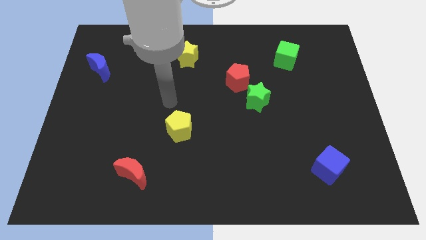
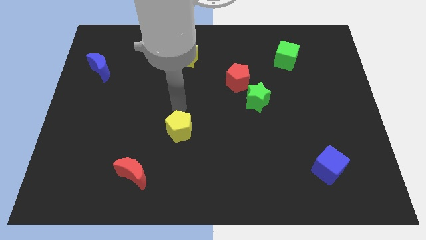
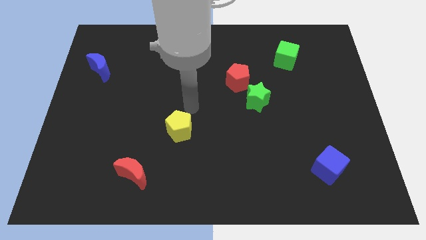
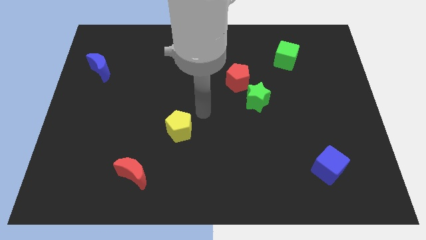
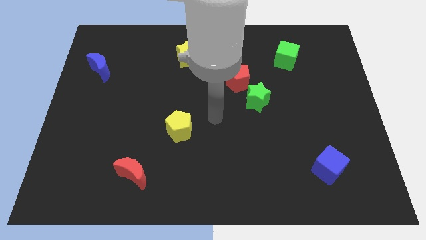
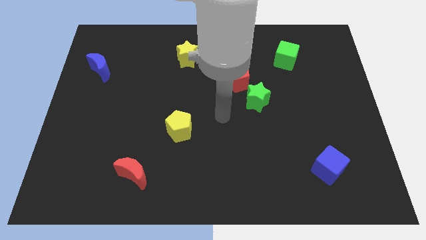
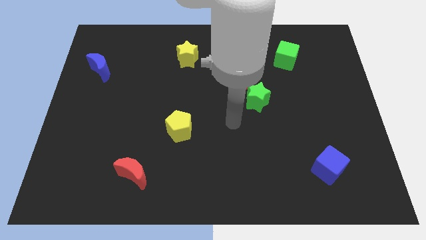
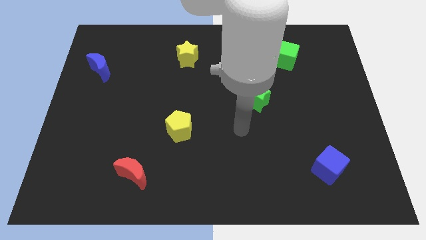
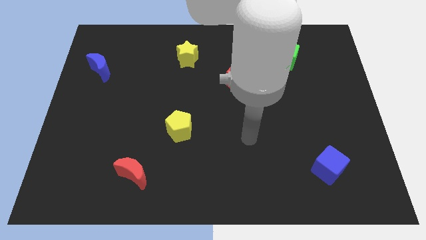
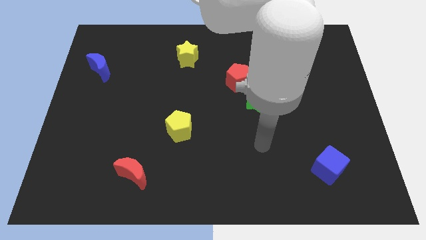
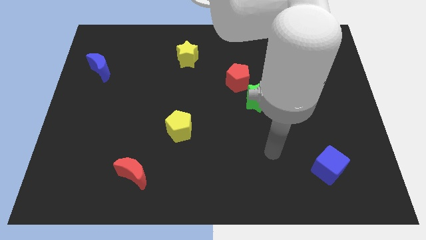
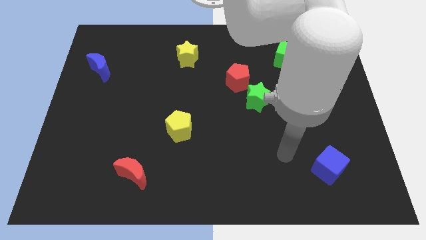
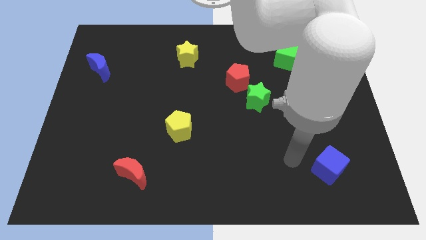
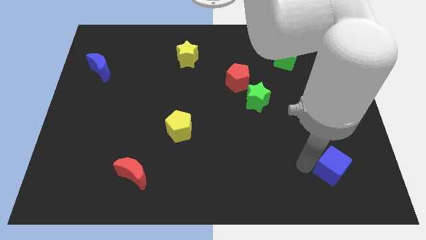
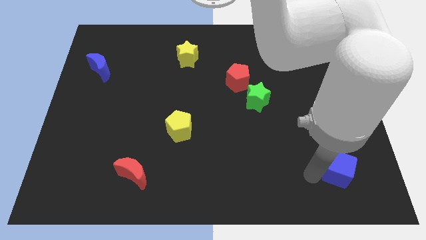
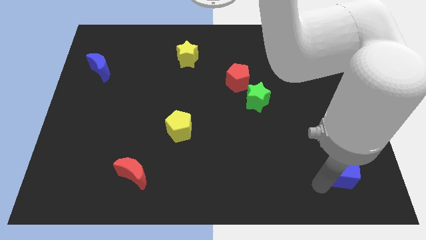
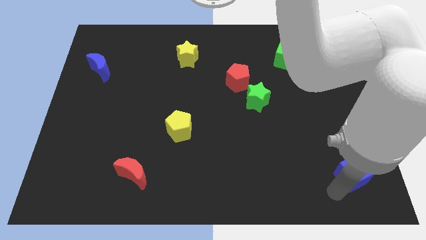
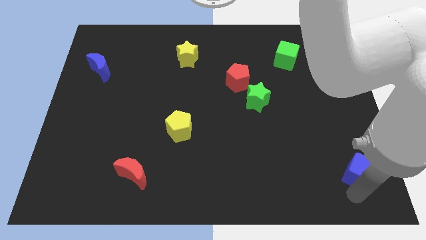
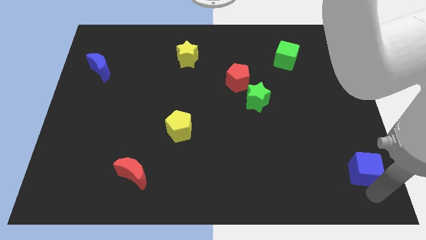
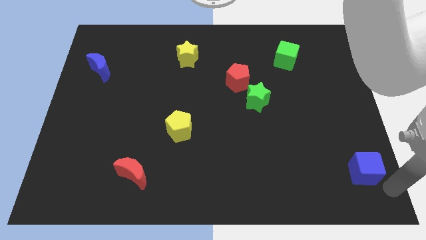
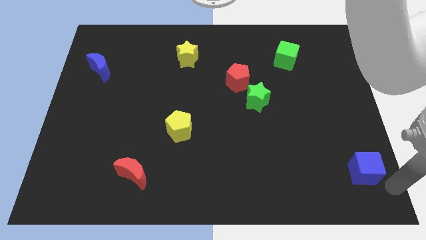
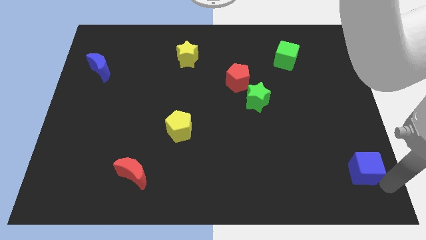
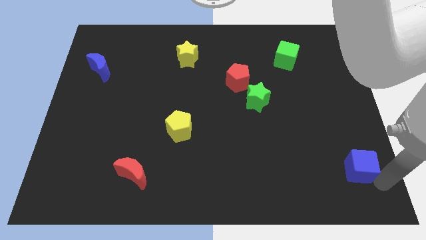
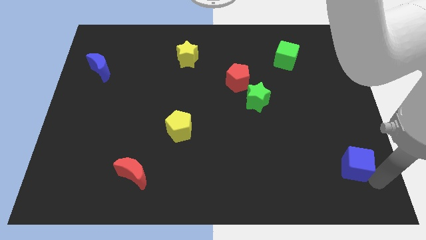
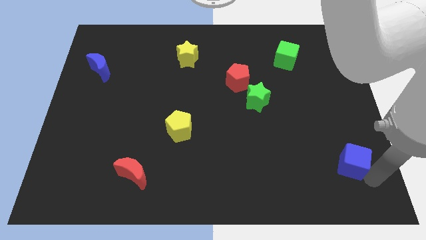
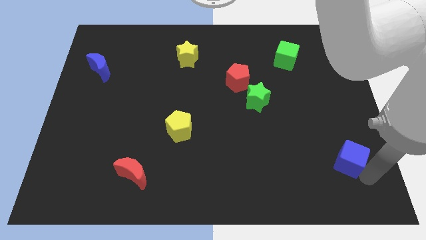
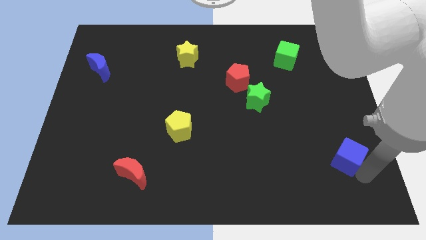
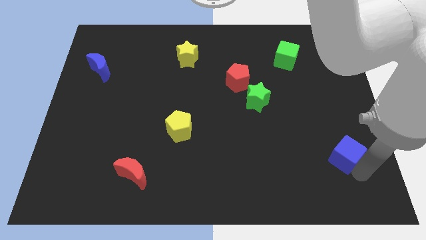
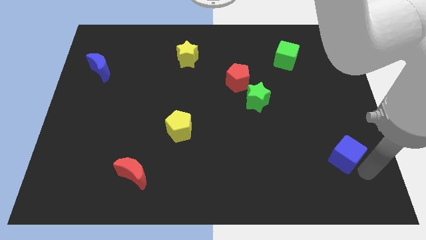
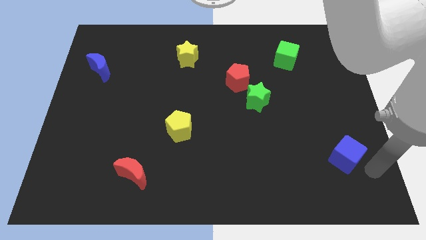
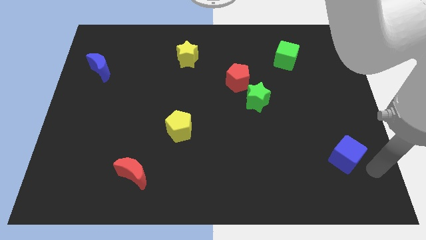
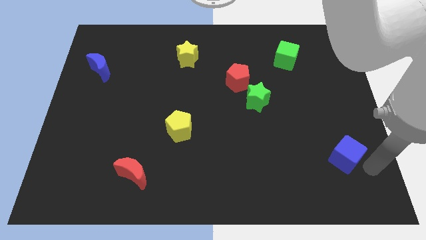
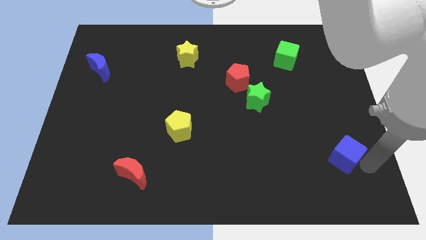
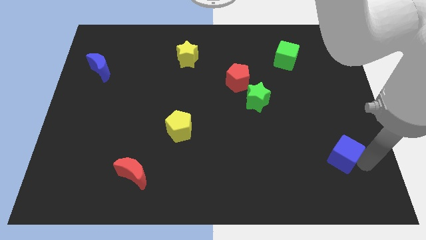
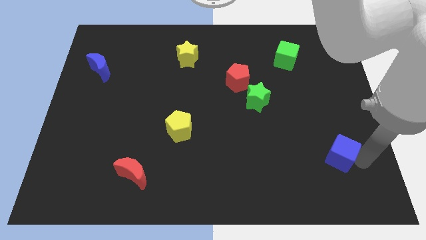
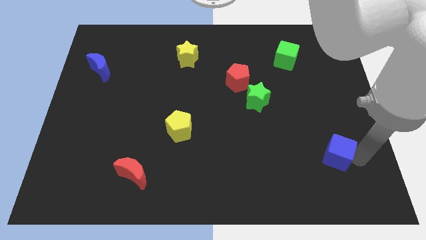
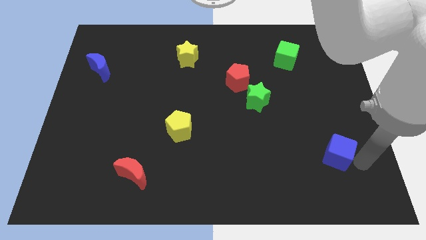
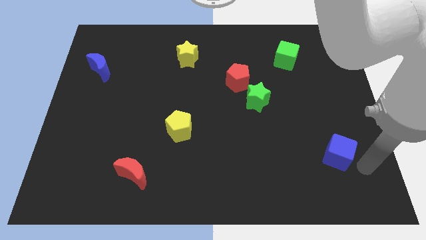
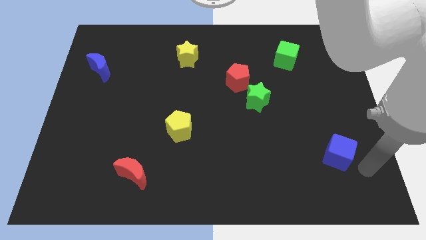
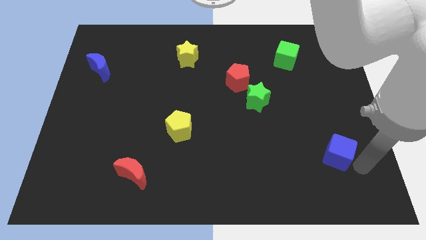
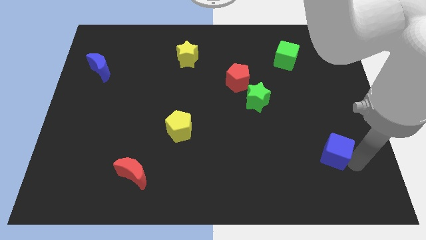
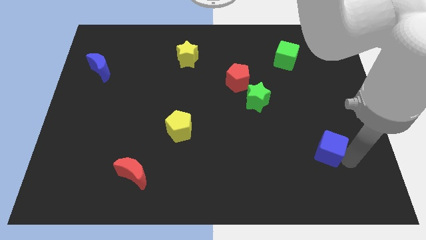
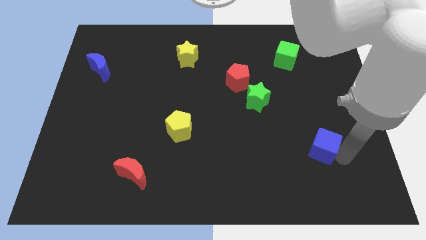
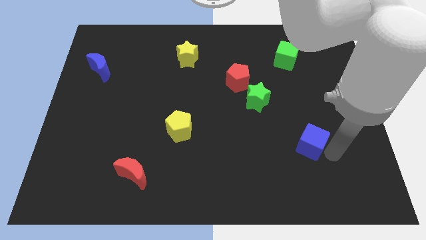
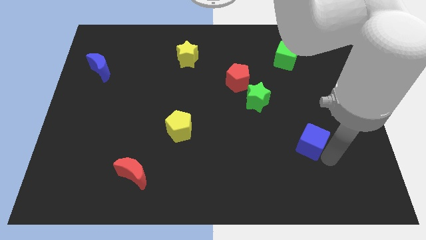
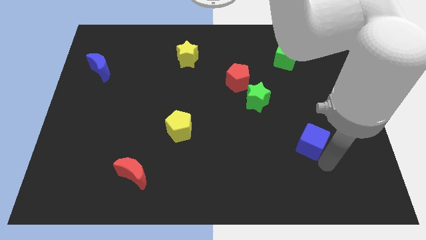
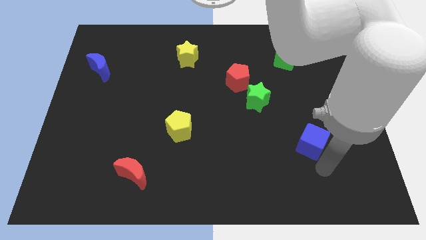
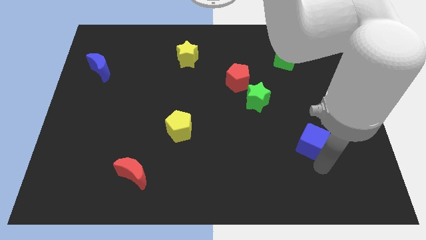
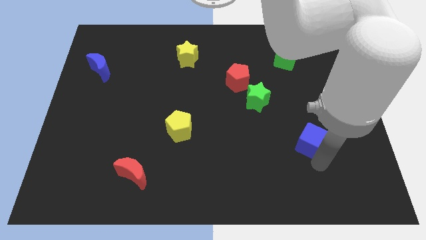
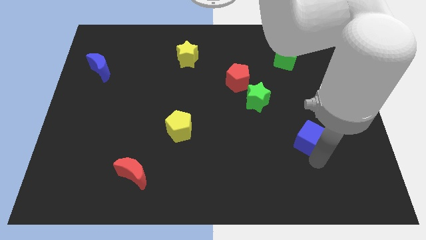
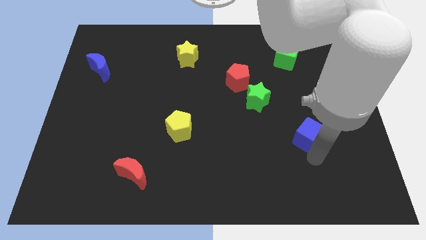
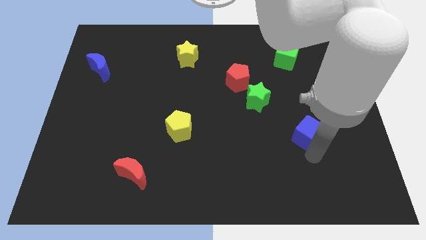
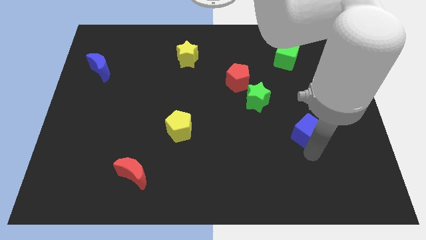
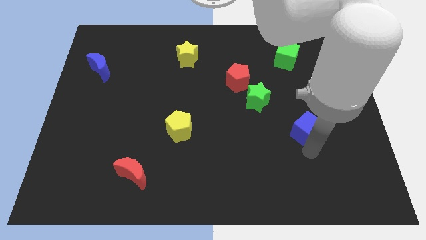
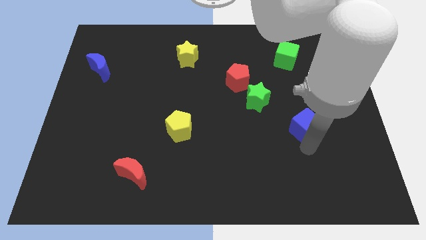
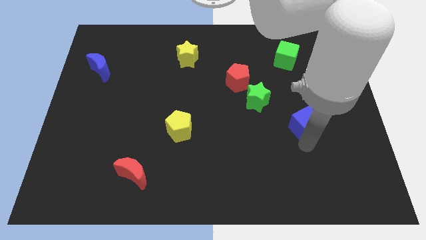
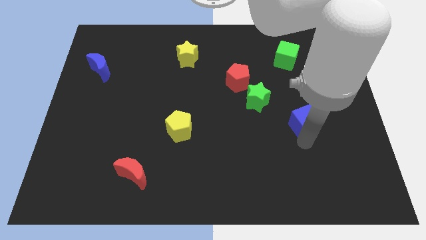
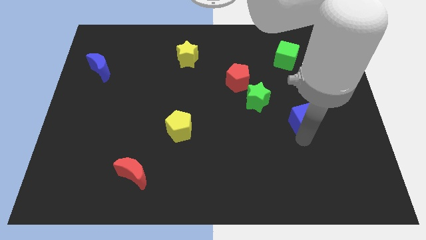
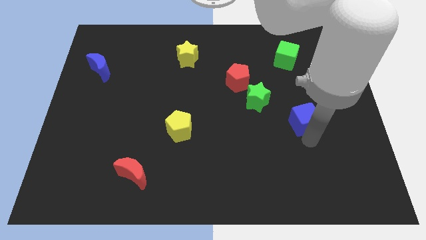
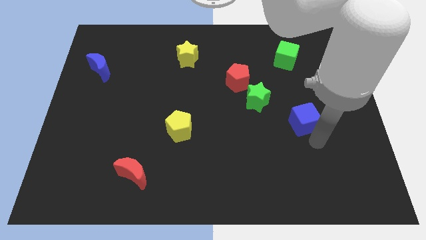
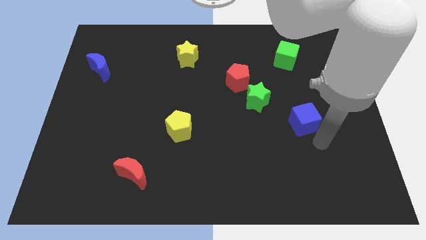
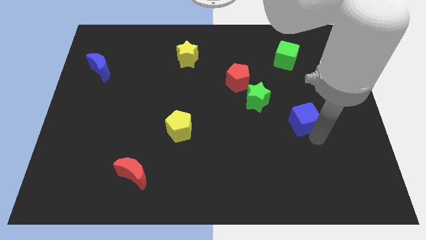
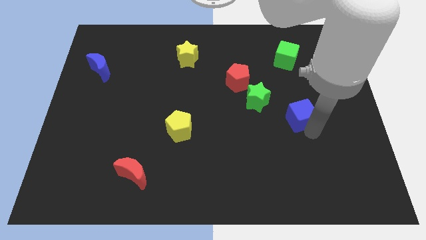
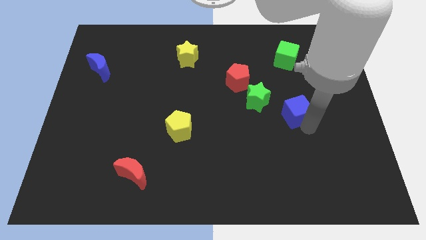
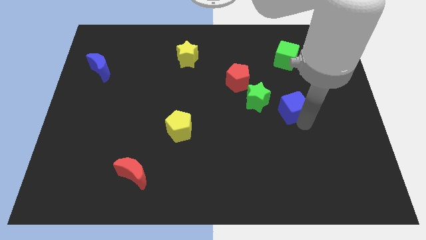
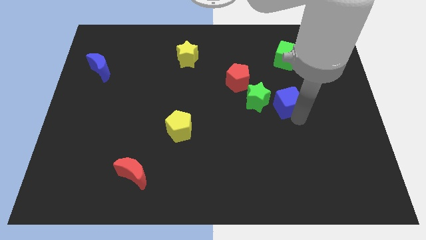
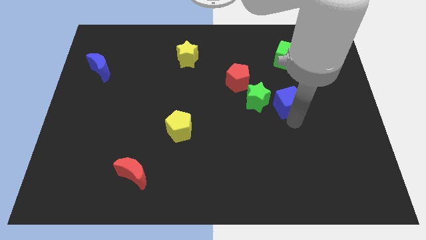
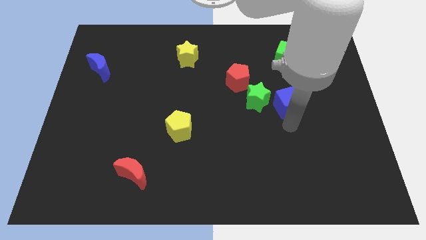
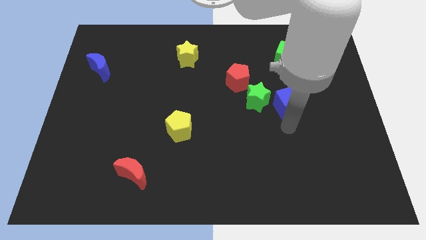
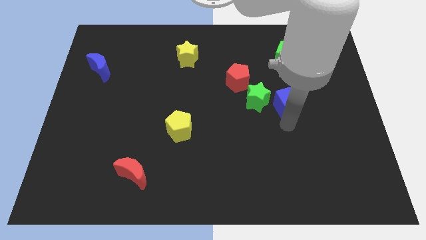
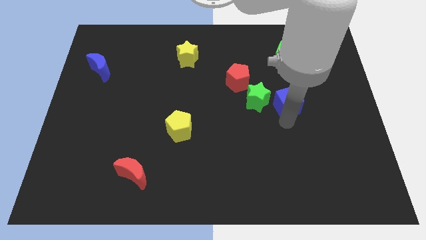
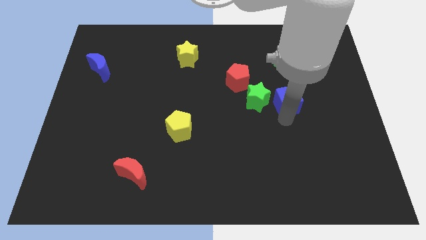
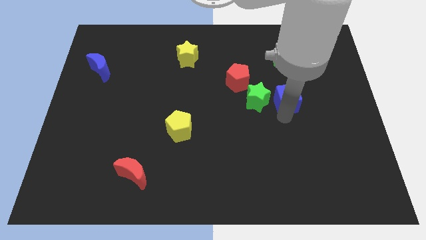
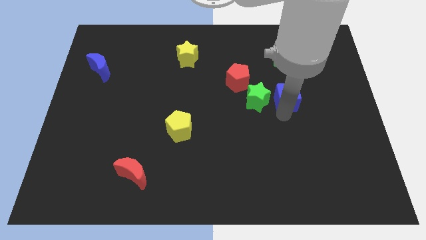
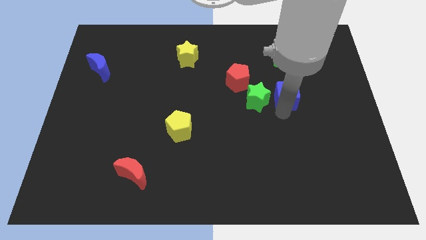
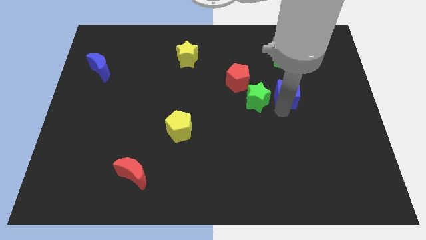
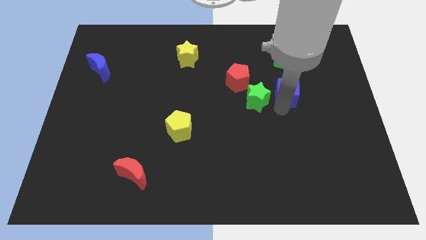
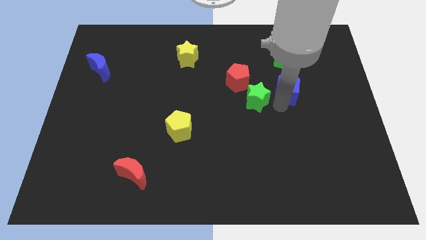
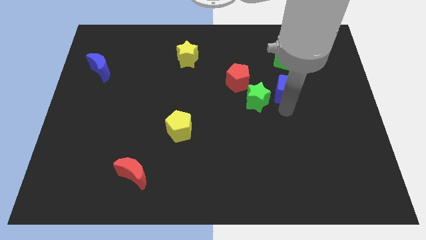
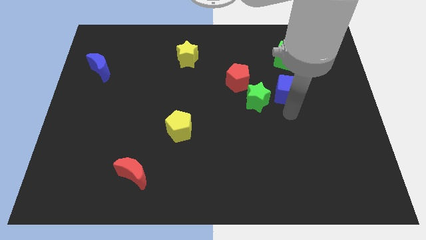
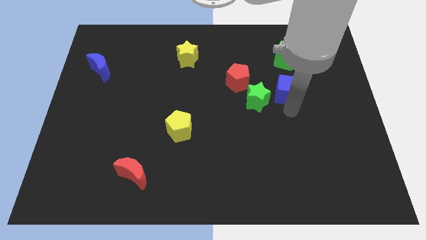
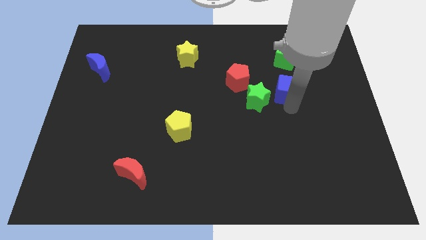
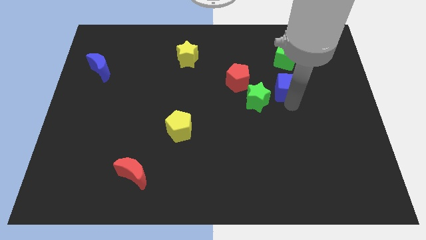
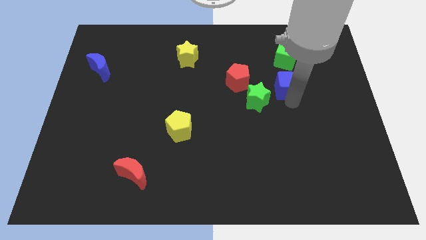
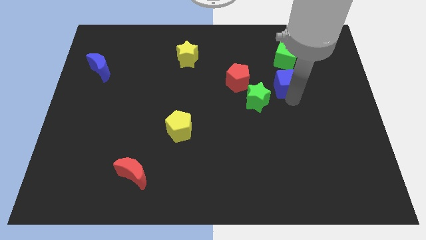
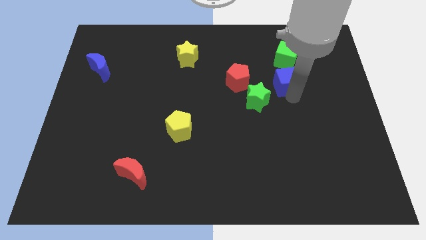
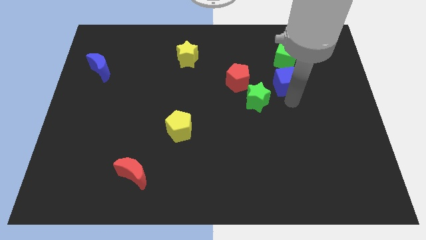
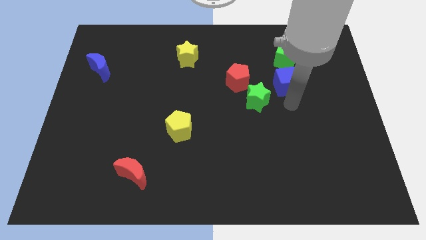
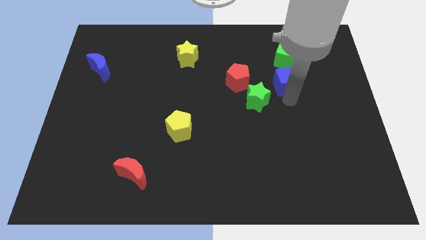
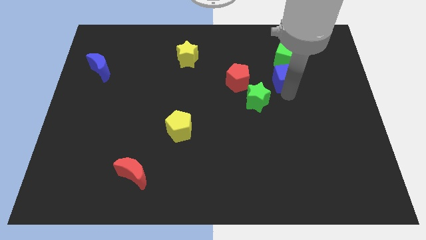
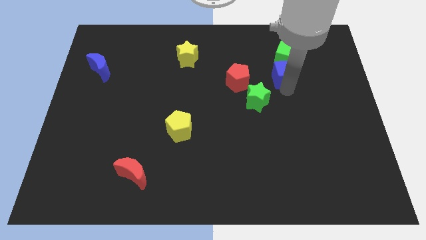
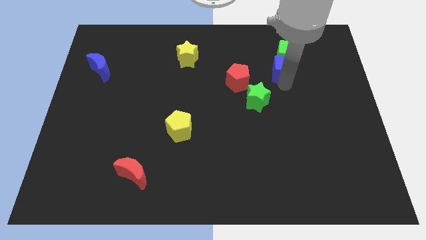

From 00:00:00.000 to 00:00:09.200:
put the blue cube to the green cube
